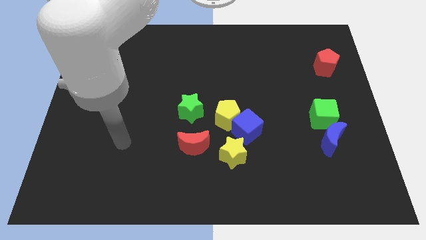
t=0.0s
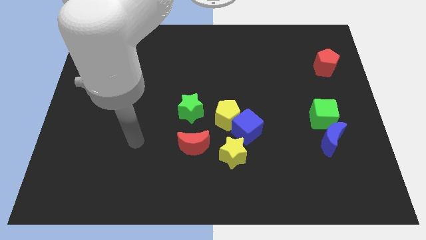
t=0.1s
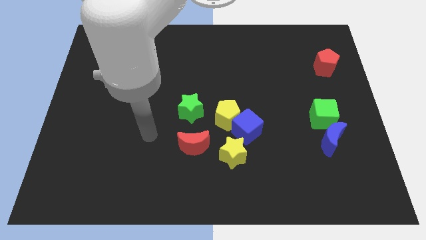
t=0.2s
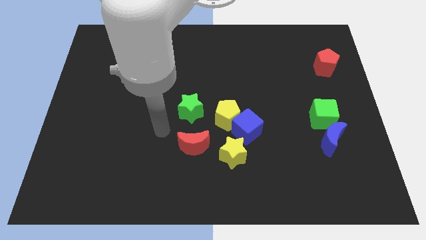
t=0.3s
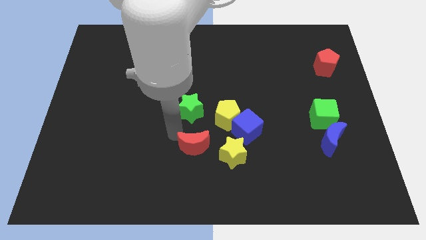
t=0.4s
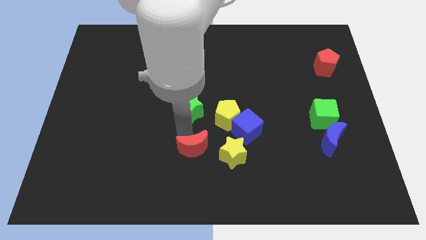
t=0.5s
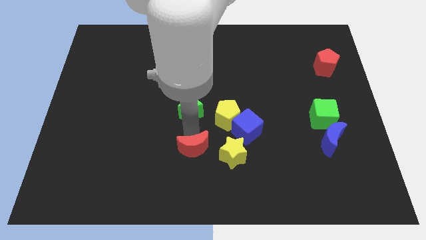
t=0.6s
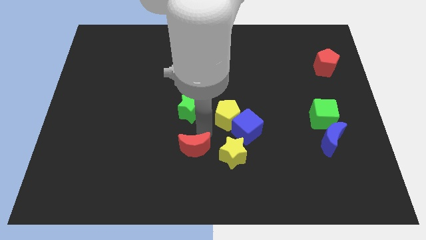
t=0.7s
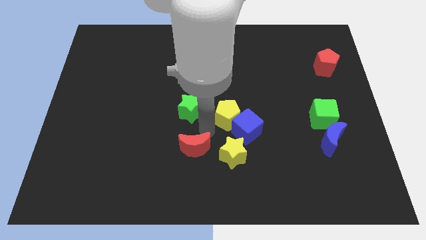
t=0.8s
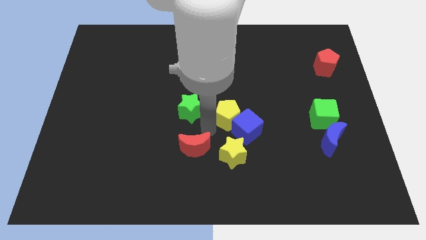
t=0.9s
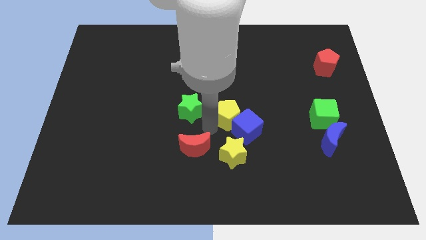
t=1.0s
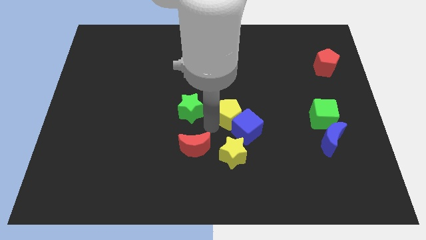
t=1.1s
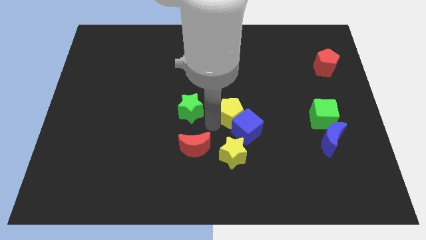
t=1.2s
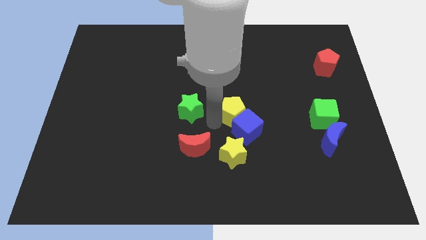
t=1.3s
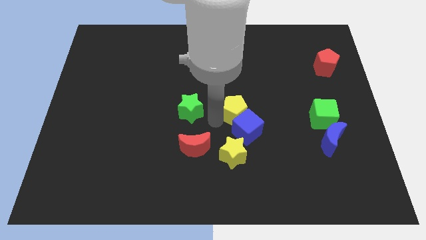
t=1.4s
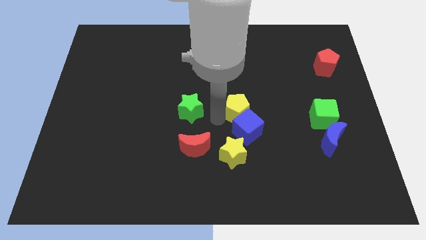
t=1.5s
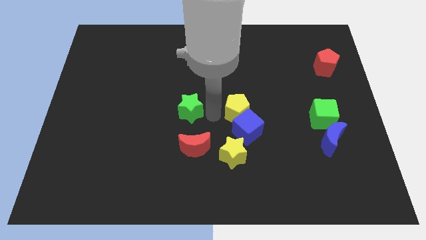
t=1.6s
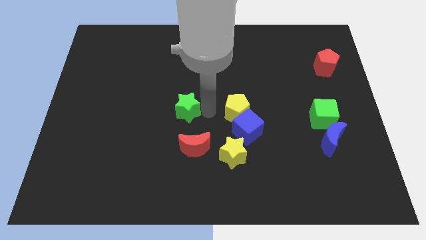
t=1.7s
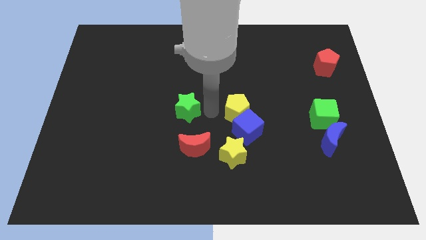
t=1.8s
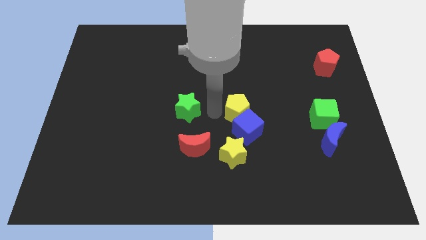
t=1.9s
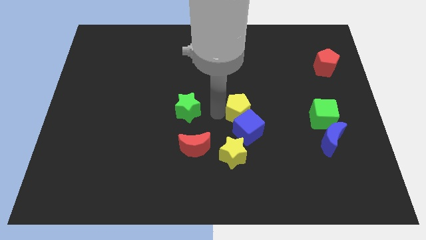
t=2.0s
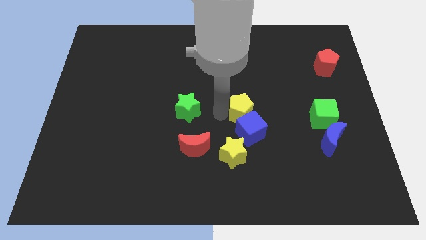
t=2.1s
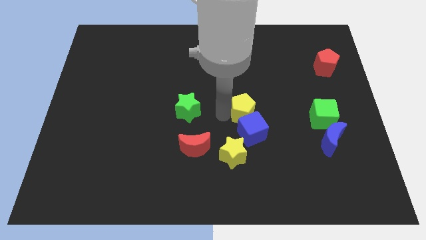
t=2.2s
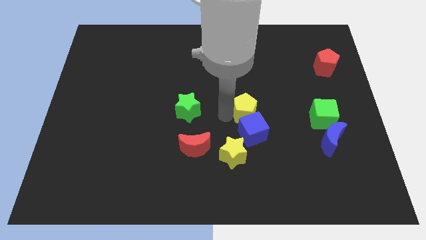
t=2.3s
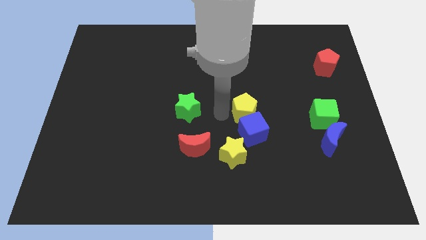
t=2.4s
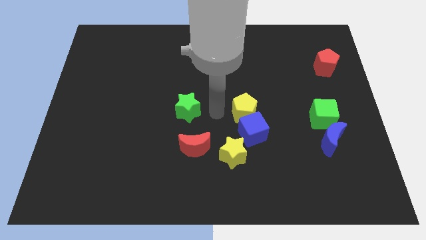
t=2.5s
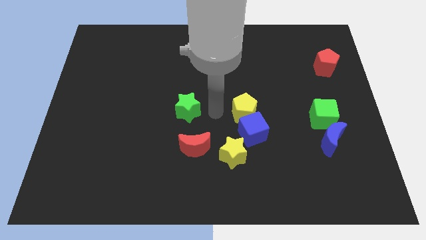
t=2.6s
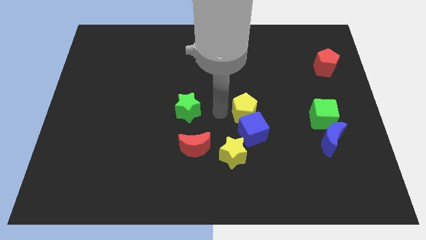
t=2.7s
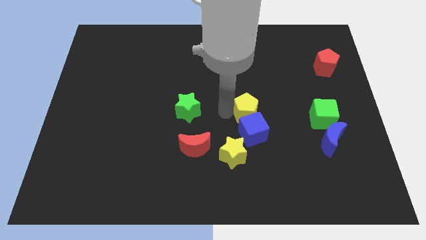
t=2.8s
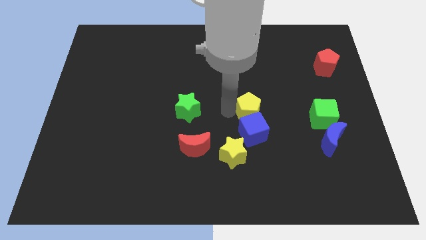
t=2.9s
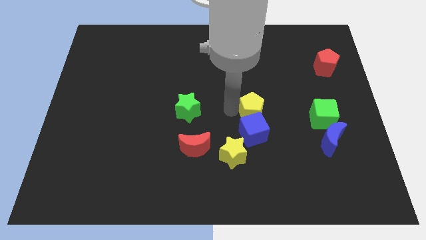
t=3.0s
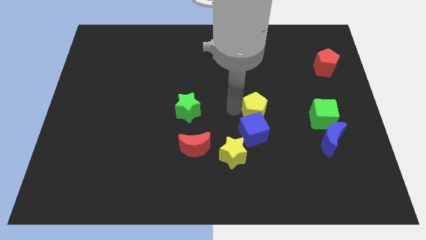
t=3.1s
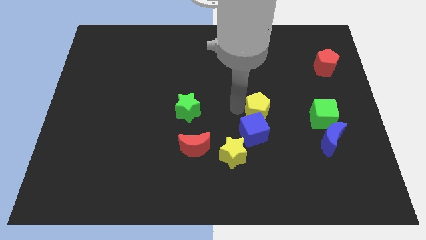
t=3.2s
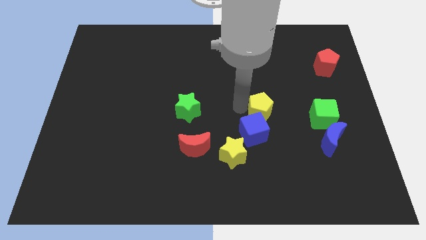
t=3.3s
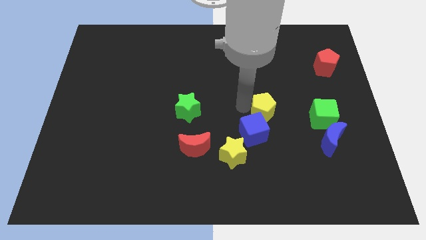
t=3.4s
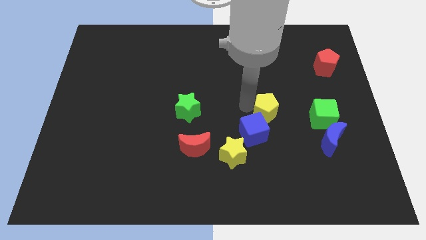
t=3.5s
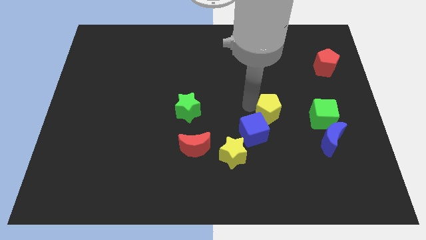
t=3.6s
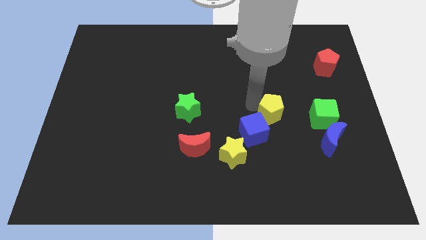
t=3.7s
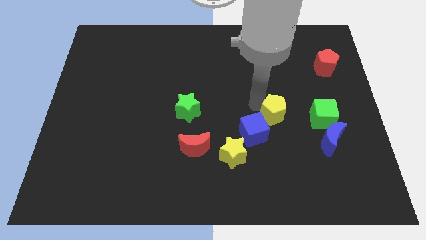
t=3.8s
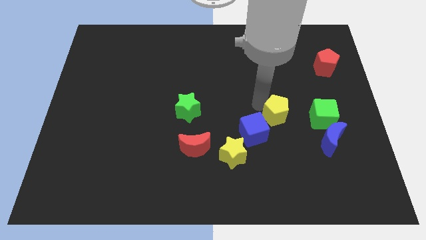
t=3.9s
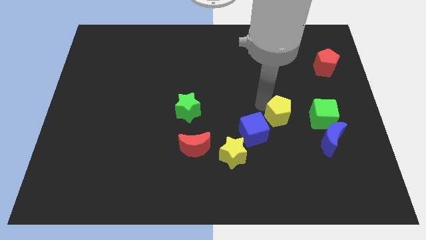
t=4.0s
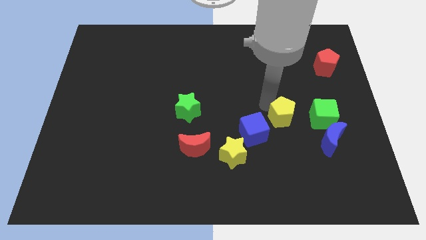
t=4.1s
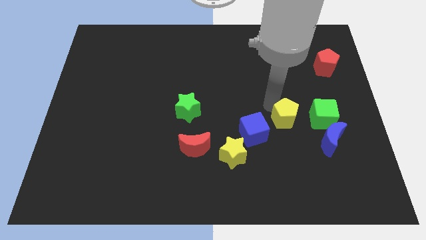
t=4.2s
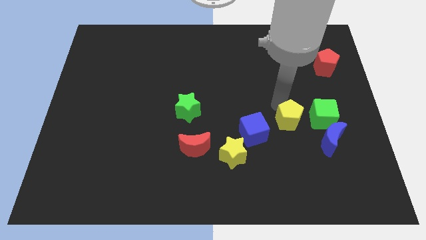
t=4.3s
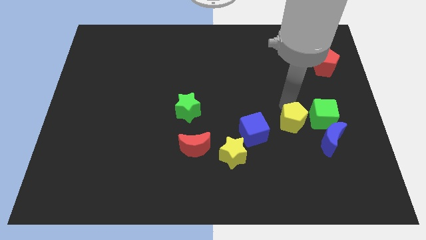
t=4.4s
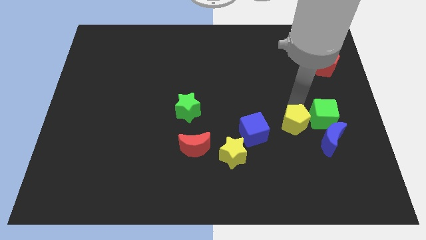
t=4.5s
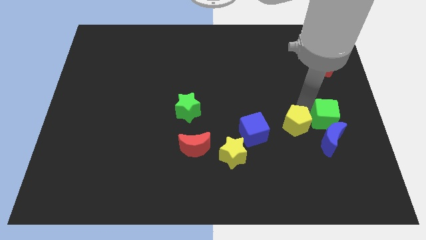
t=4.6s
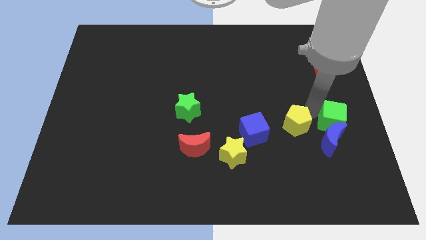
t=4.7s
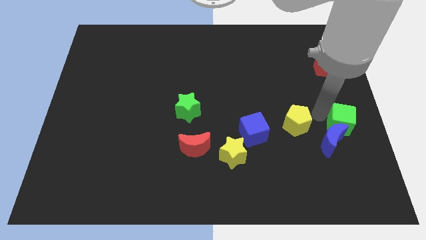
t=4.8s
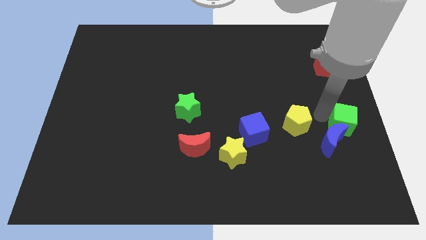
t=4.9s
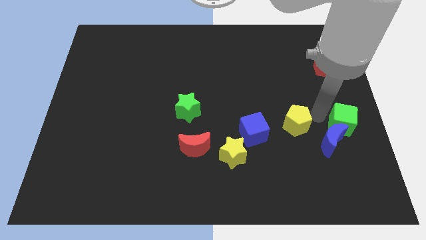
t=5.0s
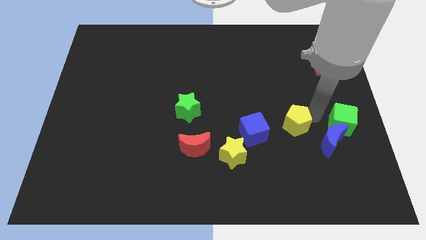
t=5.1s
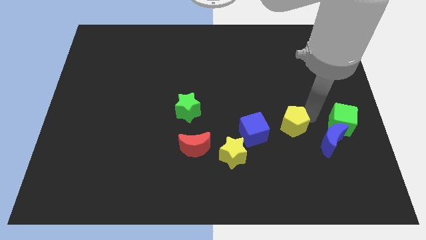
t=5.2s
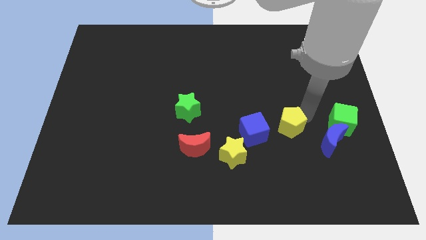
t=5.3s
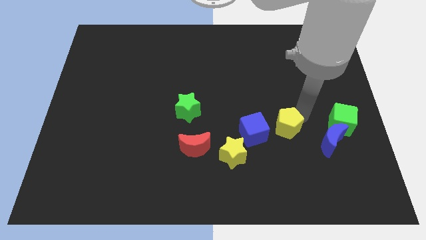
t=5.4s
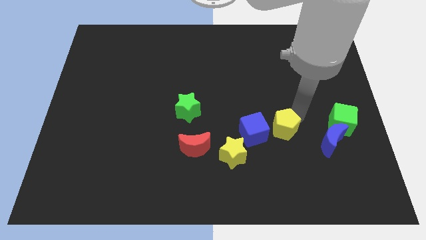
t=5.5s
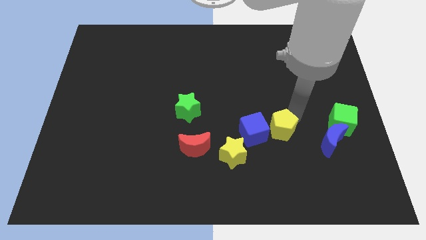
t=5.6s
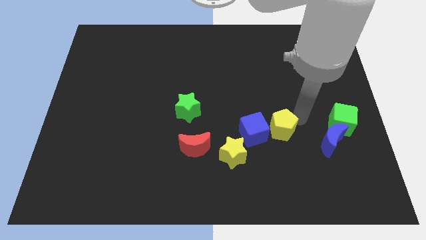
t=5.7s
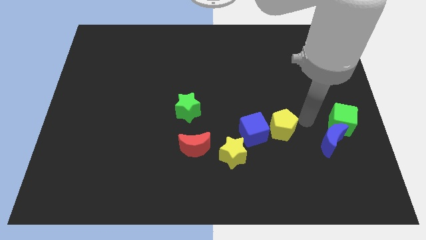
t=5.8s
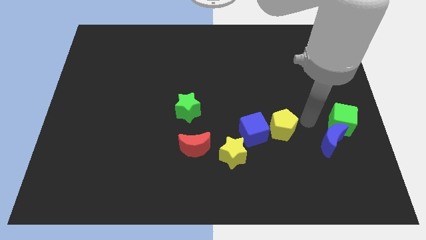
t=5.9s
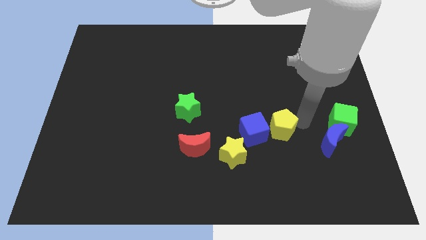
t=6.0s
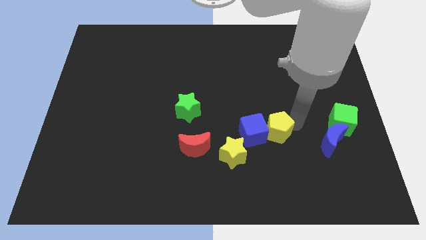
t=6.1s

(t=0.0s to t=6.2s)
push the yellow pentagon diagonally up and to the right of the yellow star

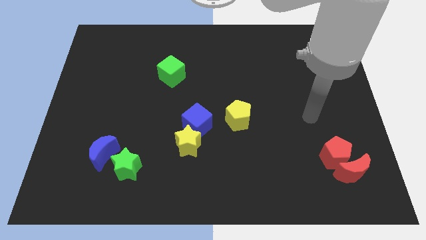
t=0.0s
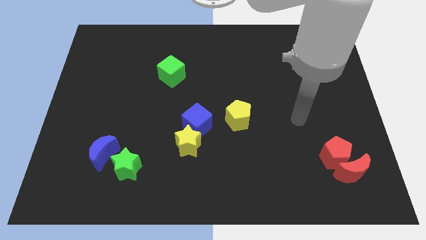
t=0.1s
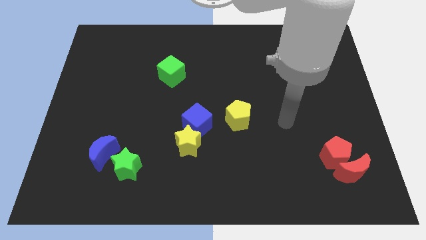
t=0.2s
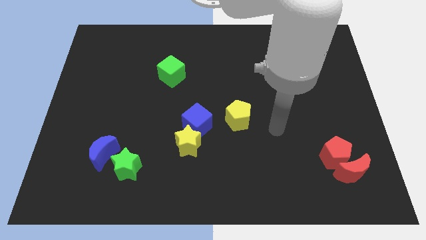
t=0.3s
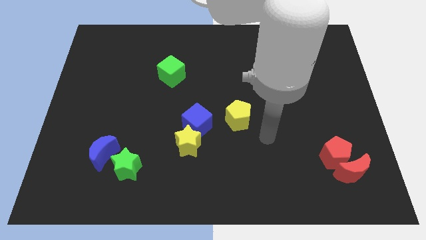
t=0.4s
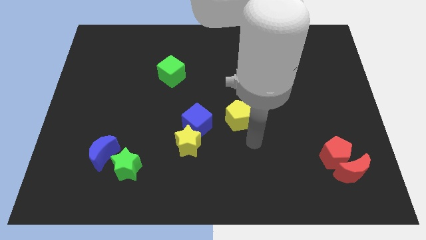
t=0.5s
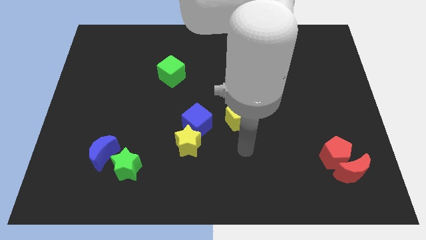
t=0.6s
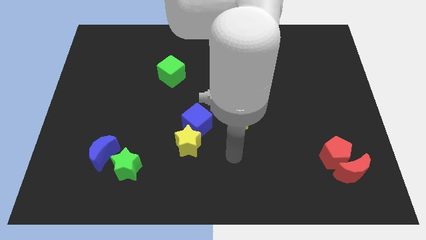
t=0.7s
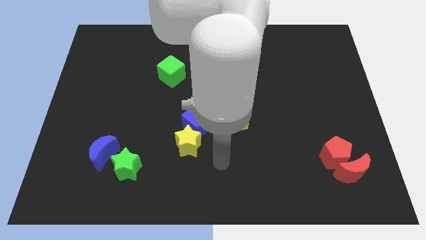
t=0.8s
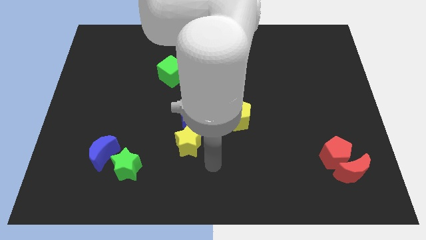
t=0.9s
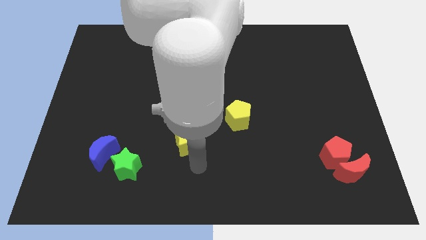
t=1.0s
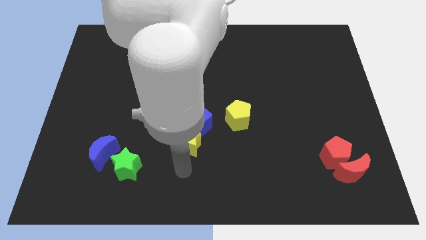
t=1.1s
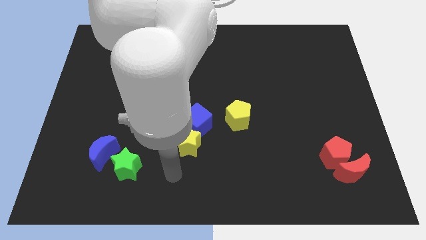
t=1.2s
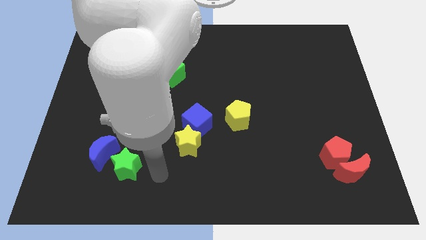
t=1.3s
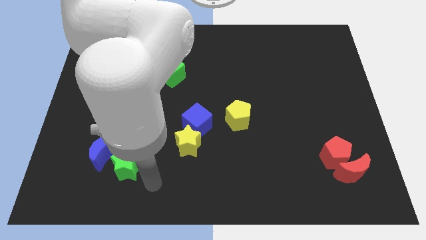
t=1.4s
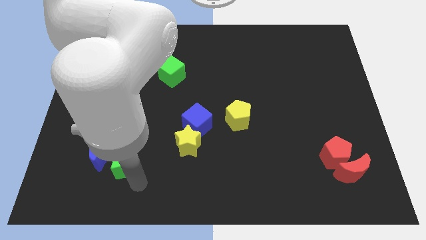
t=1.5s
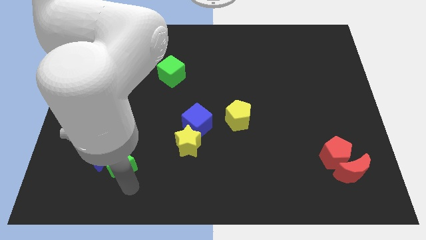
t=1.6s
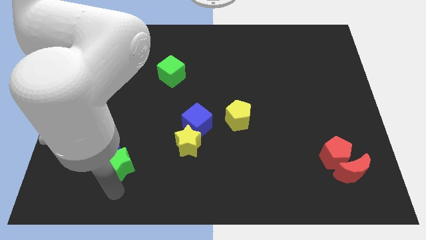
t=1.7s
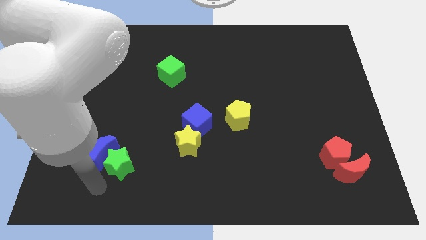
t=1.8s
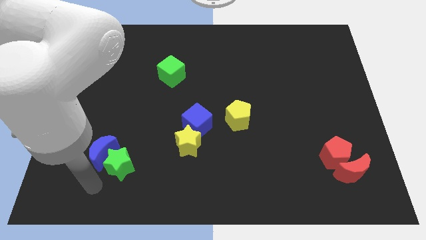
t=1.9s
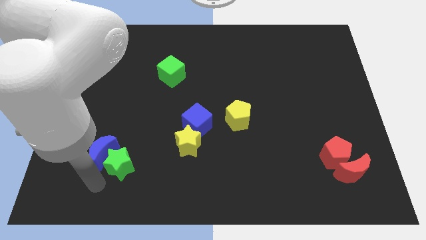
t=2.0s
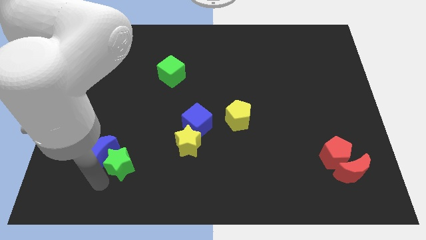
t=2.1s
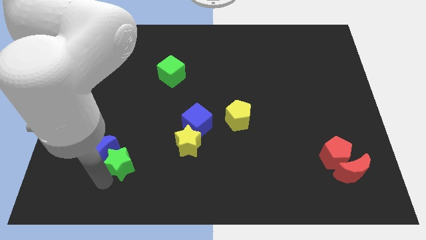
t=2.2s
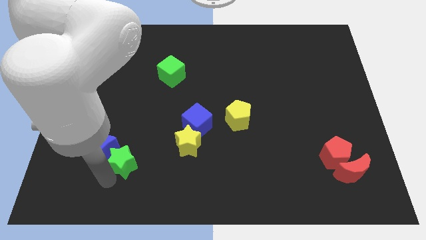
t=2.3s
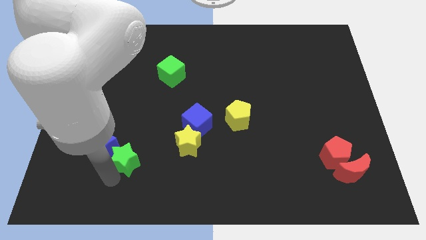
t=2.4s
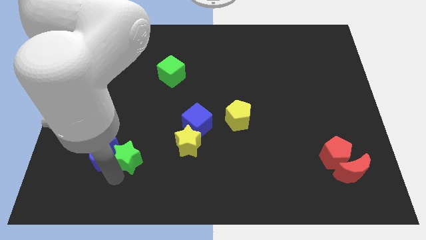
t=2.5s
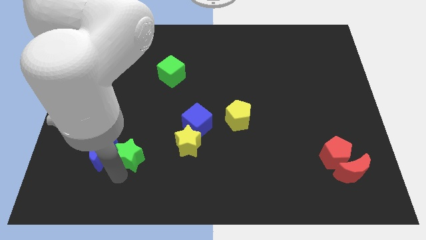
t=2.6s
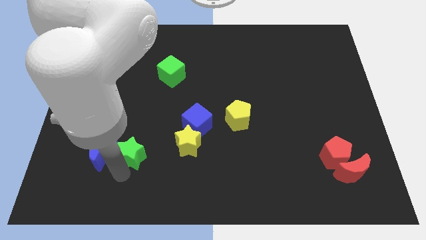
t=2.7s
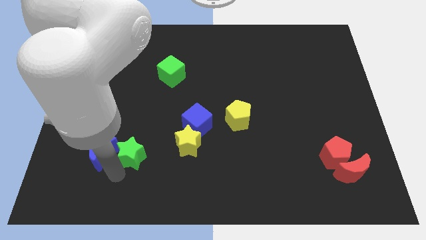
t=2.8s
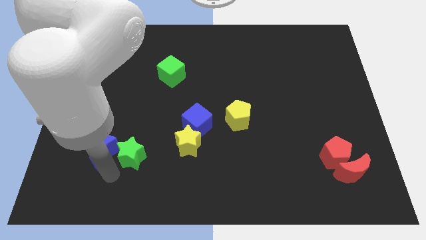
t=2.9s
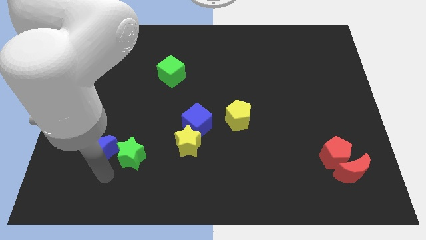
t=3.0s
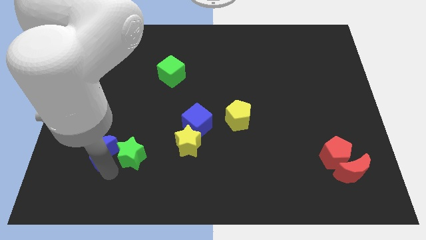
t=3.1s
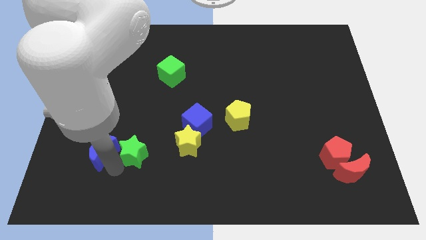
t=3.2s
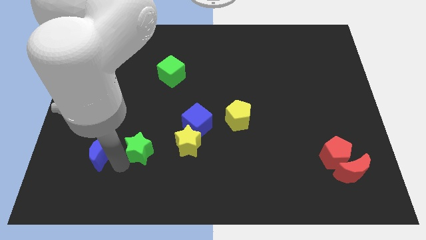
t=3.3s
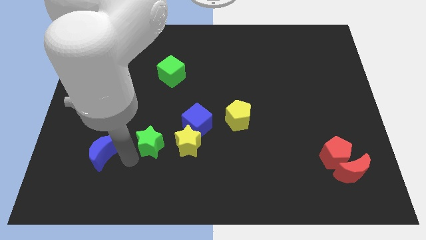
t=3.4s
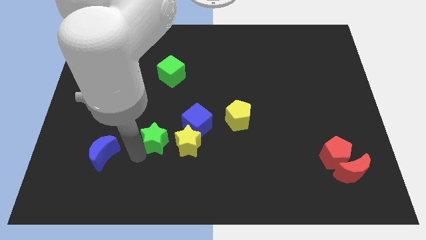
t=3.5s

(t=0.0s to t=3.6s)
push the green star to the top left of the yellow star
